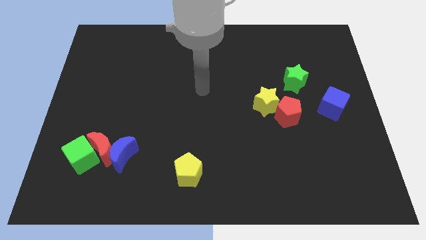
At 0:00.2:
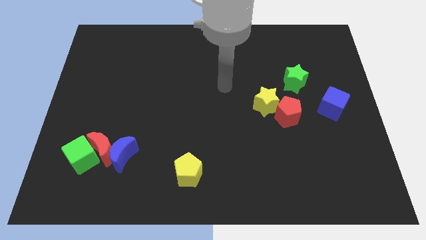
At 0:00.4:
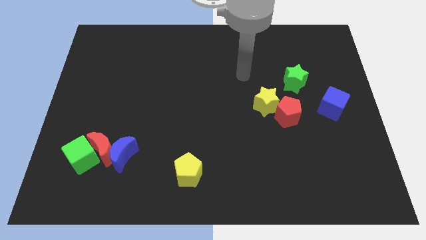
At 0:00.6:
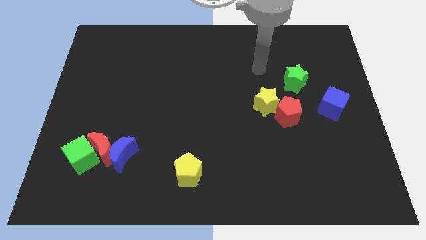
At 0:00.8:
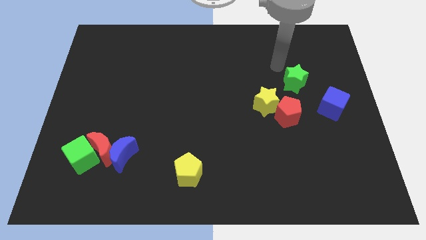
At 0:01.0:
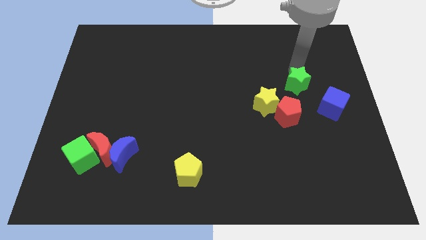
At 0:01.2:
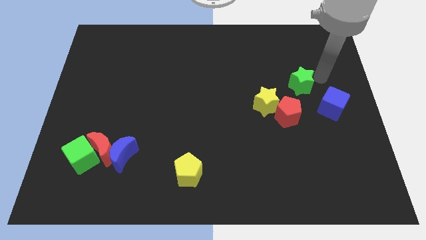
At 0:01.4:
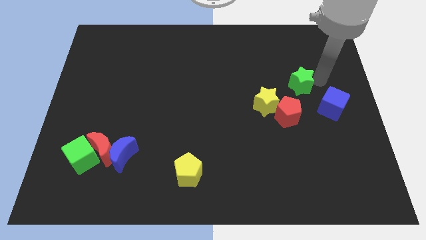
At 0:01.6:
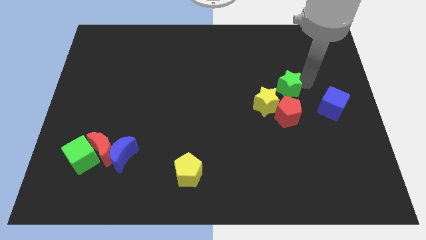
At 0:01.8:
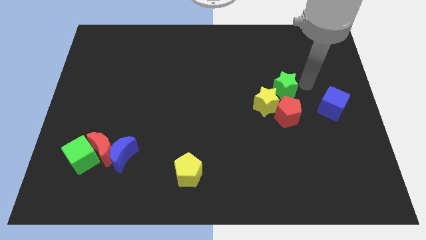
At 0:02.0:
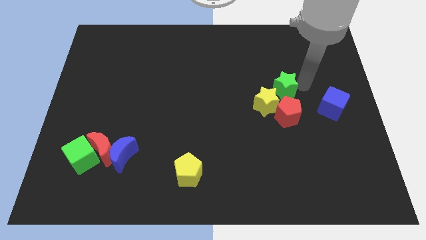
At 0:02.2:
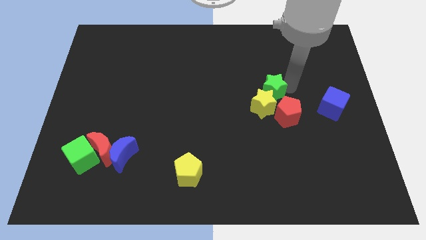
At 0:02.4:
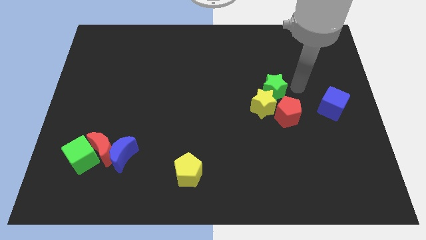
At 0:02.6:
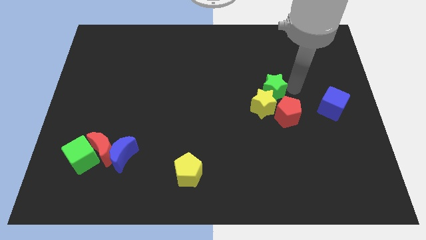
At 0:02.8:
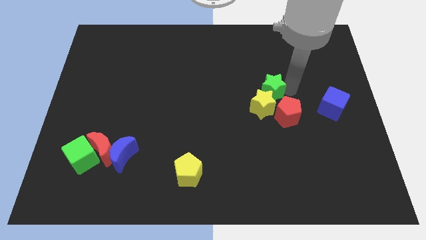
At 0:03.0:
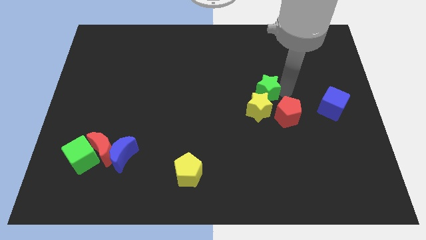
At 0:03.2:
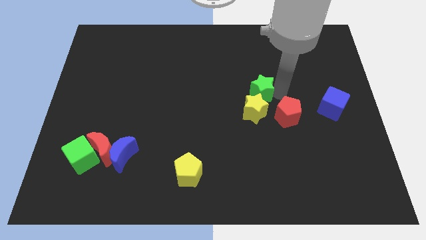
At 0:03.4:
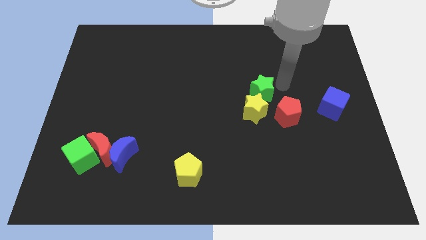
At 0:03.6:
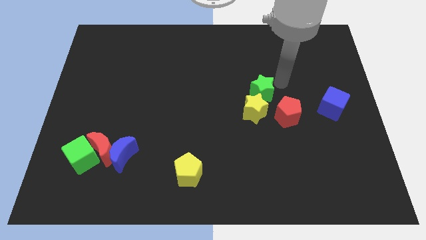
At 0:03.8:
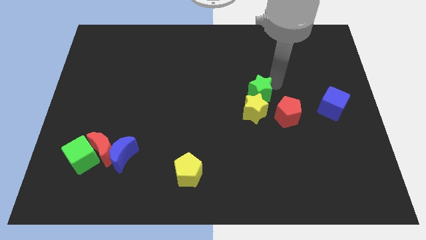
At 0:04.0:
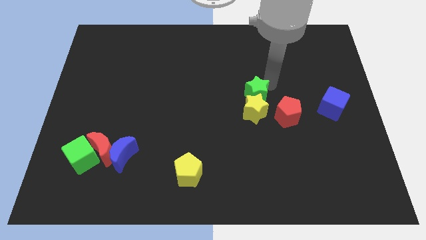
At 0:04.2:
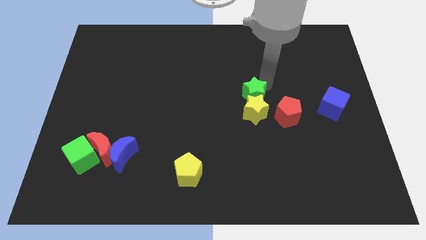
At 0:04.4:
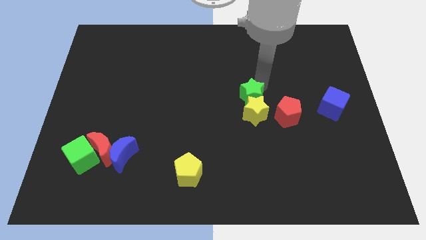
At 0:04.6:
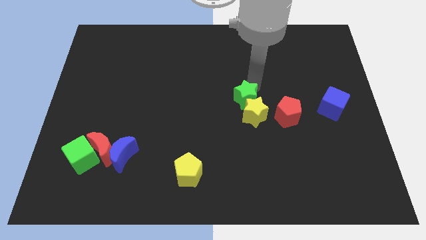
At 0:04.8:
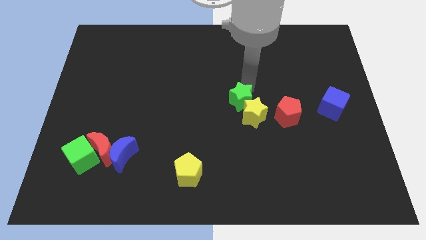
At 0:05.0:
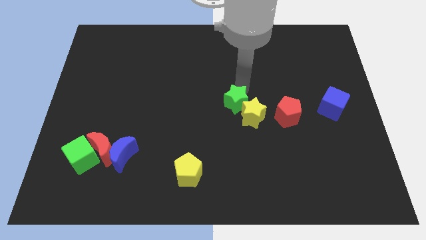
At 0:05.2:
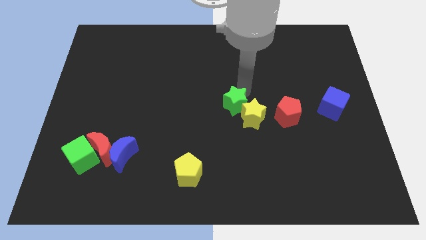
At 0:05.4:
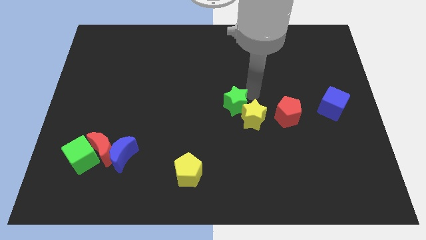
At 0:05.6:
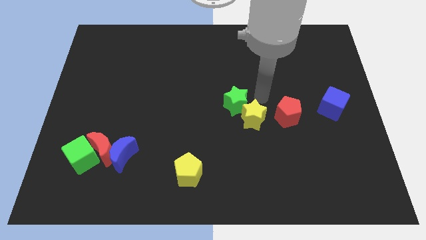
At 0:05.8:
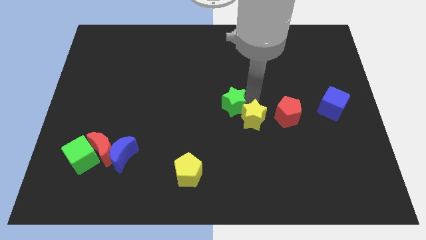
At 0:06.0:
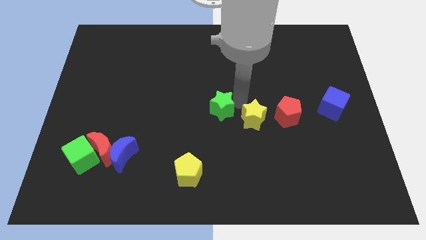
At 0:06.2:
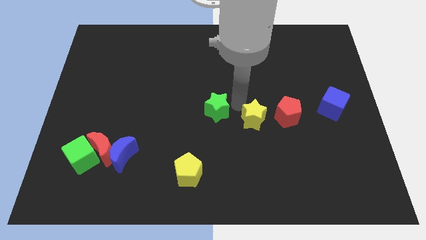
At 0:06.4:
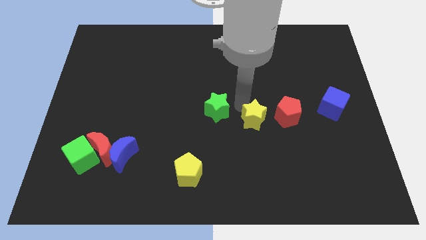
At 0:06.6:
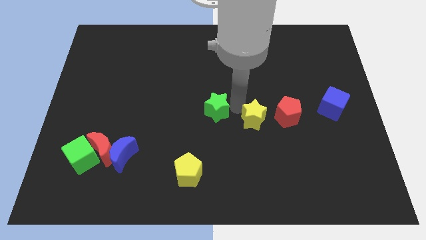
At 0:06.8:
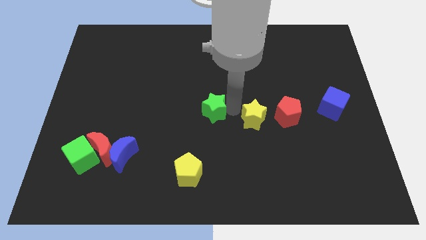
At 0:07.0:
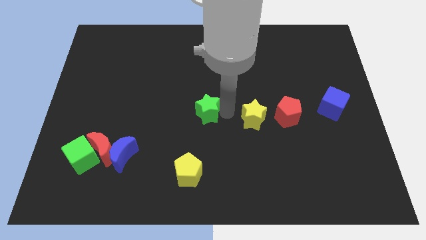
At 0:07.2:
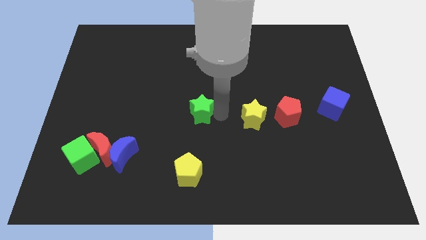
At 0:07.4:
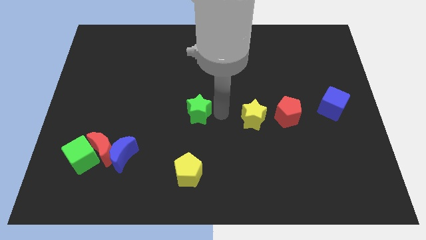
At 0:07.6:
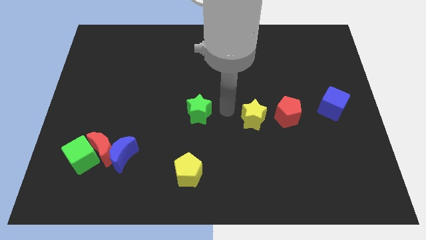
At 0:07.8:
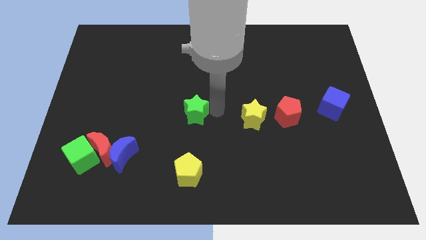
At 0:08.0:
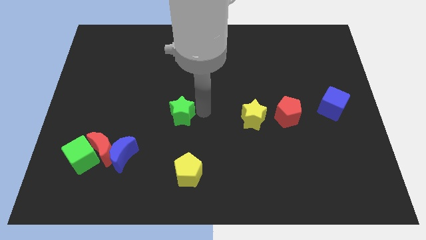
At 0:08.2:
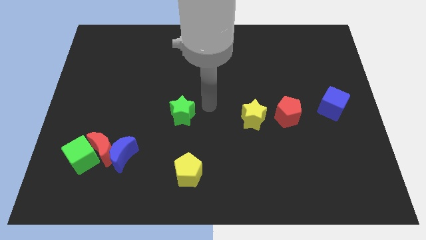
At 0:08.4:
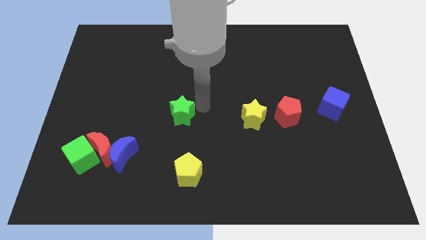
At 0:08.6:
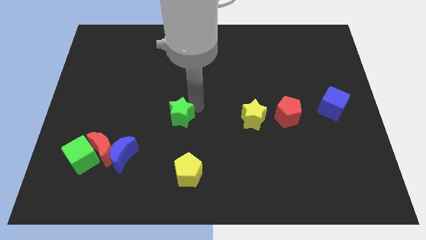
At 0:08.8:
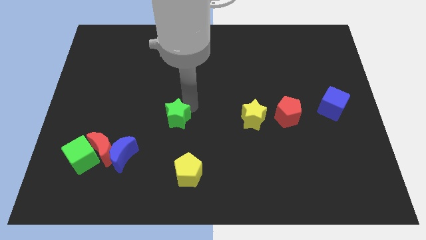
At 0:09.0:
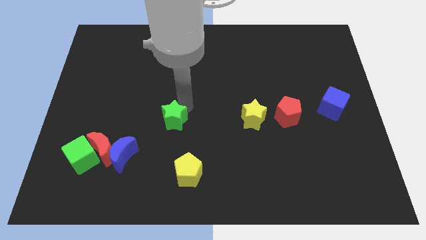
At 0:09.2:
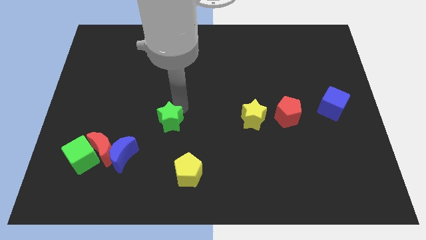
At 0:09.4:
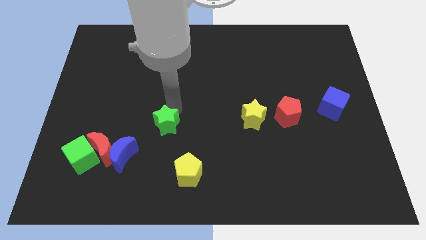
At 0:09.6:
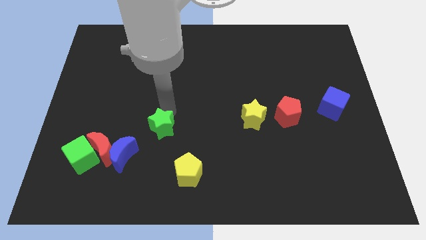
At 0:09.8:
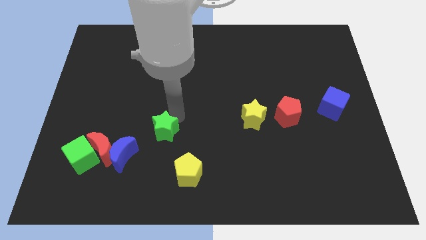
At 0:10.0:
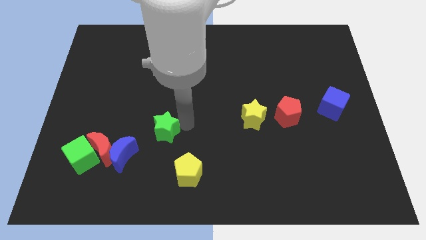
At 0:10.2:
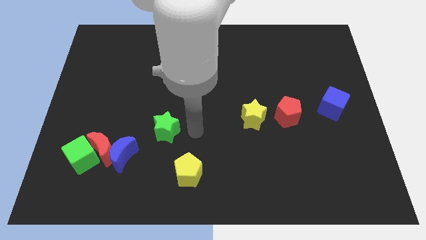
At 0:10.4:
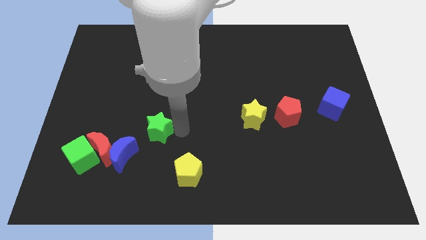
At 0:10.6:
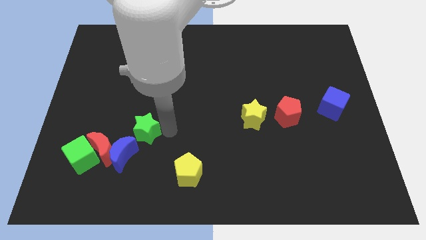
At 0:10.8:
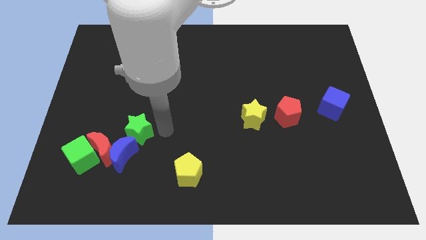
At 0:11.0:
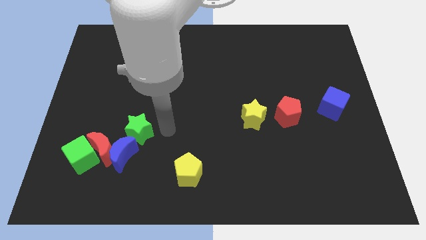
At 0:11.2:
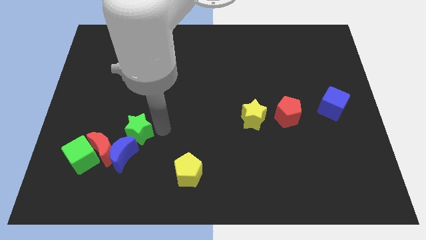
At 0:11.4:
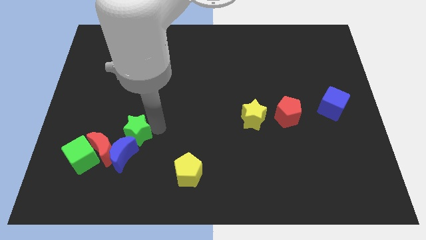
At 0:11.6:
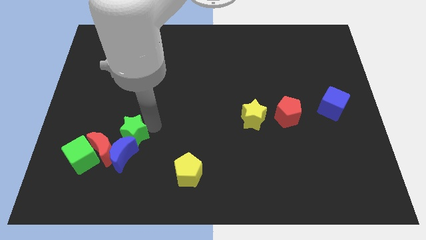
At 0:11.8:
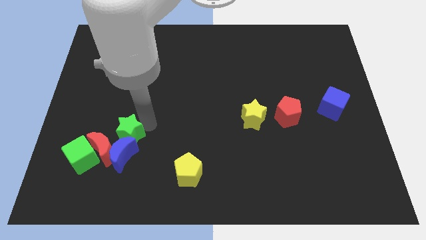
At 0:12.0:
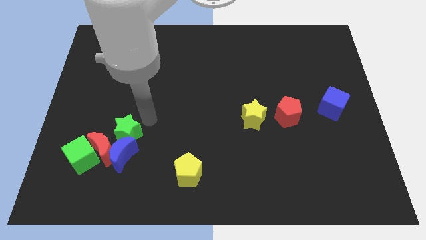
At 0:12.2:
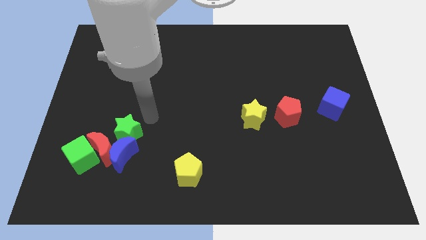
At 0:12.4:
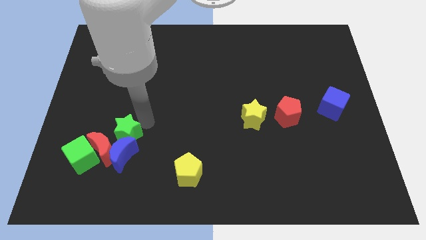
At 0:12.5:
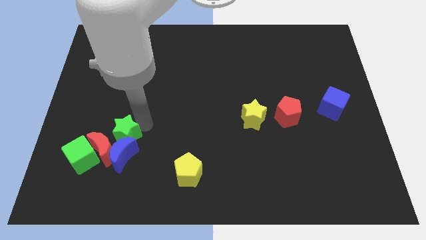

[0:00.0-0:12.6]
move the green star towards the red moon

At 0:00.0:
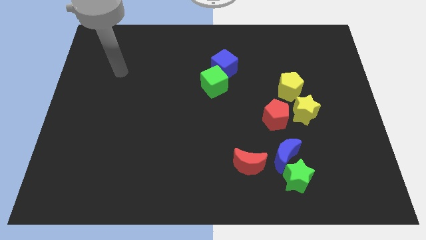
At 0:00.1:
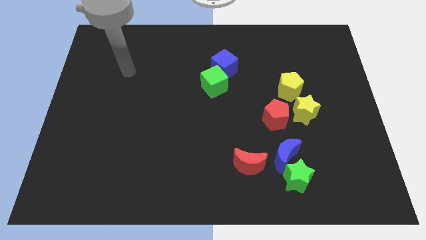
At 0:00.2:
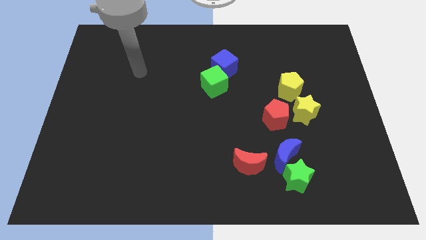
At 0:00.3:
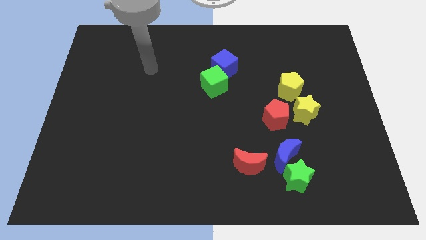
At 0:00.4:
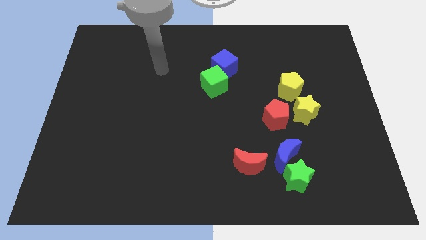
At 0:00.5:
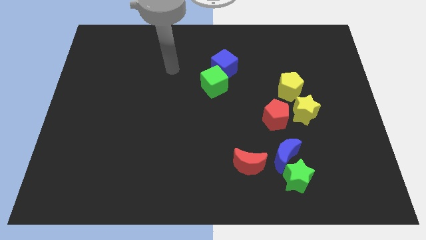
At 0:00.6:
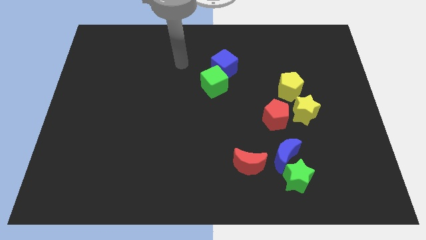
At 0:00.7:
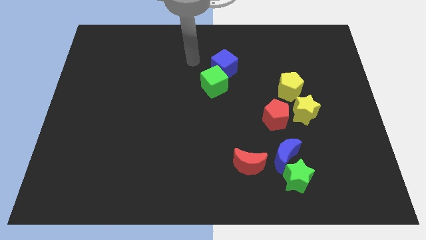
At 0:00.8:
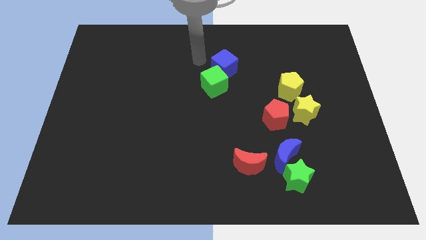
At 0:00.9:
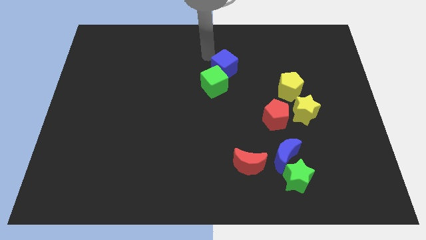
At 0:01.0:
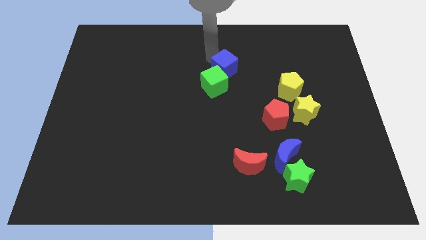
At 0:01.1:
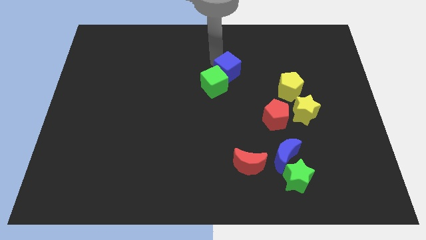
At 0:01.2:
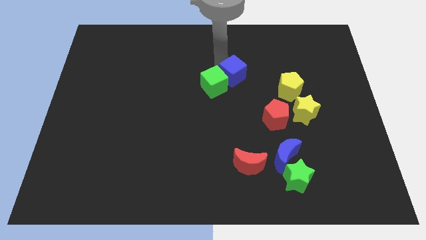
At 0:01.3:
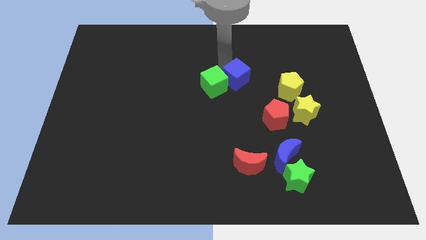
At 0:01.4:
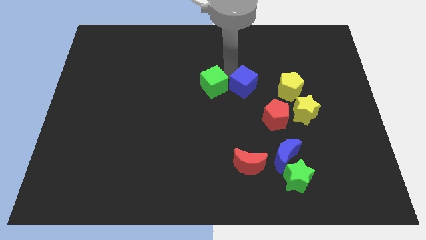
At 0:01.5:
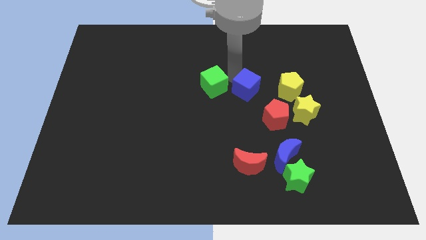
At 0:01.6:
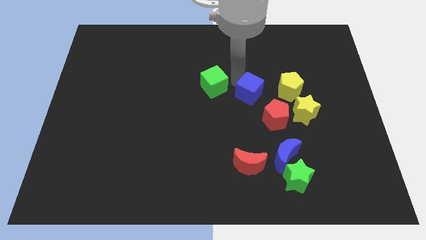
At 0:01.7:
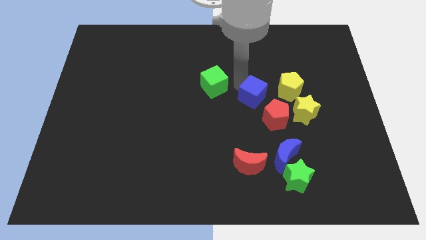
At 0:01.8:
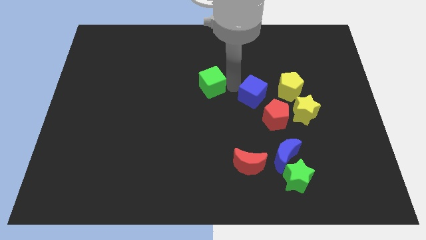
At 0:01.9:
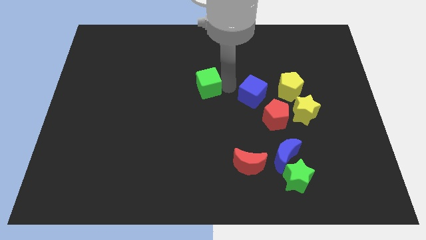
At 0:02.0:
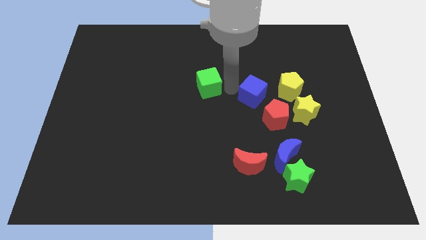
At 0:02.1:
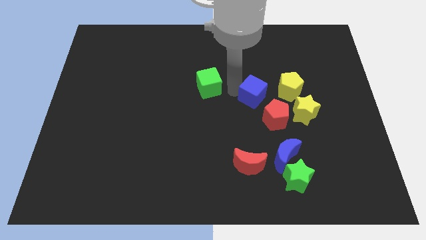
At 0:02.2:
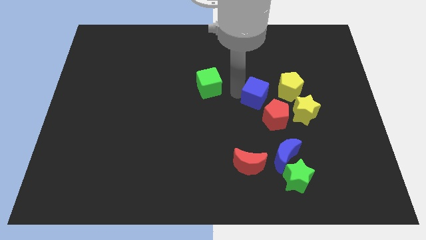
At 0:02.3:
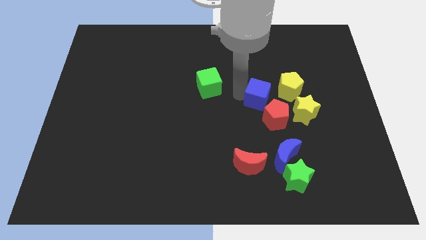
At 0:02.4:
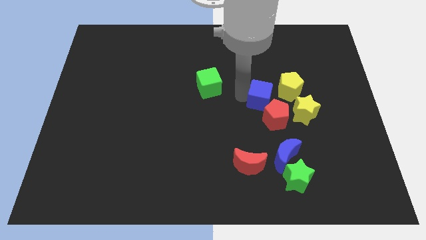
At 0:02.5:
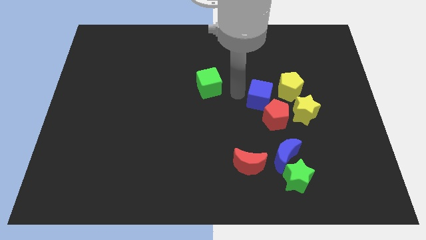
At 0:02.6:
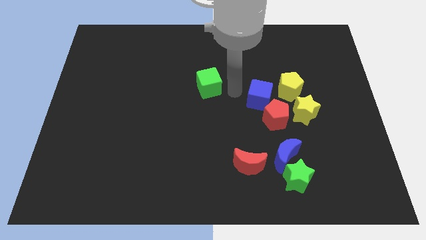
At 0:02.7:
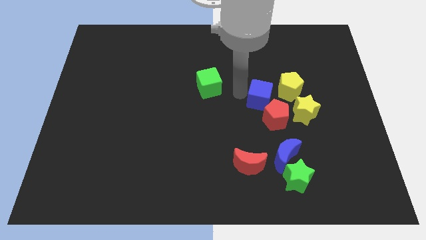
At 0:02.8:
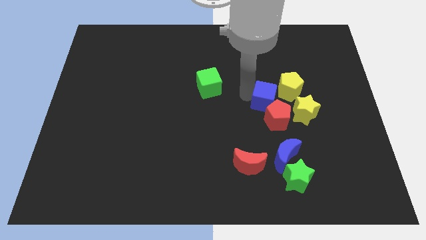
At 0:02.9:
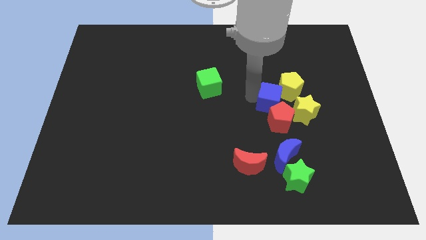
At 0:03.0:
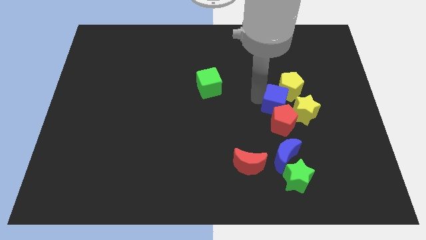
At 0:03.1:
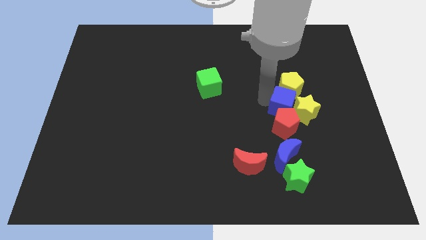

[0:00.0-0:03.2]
move the blue cube towards the yellow star
